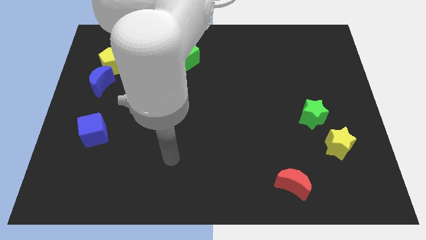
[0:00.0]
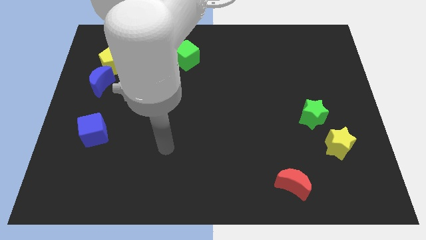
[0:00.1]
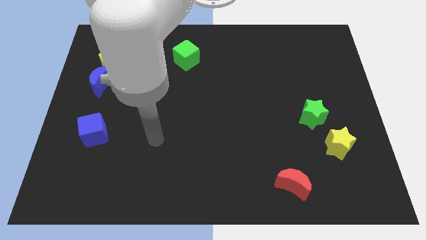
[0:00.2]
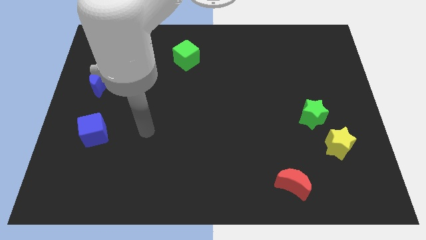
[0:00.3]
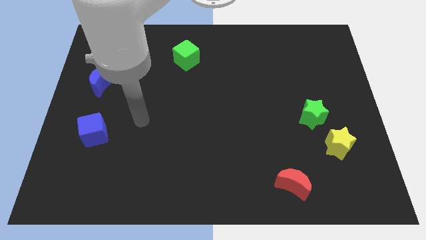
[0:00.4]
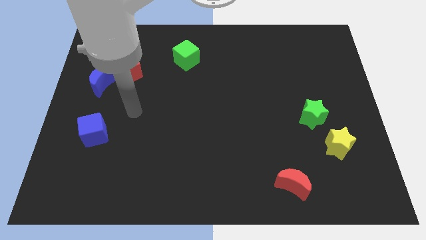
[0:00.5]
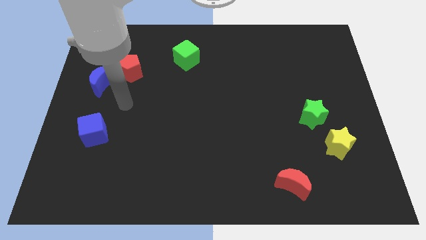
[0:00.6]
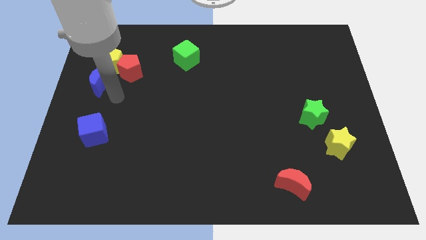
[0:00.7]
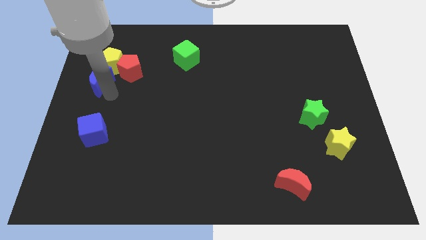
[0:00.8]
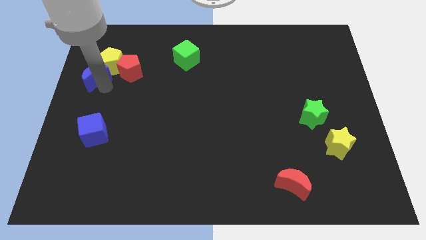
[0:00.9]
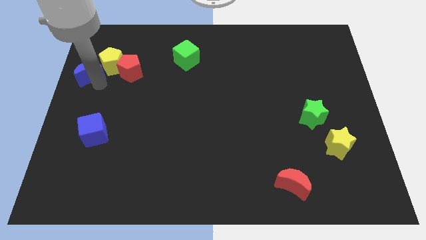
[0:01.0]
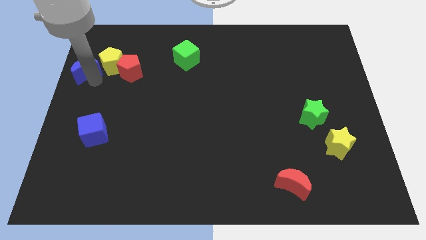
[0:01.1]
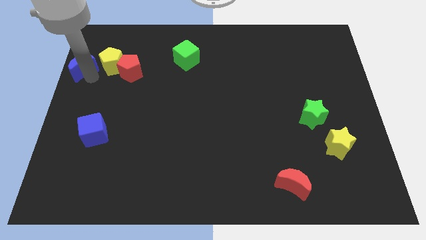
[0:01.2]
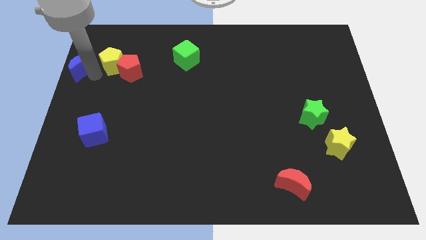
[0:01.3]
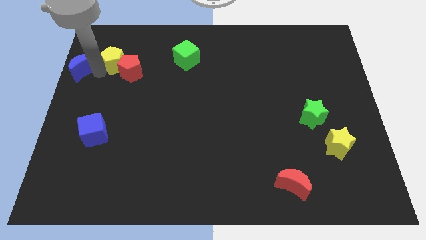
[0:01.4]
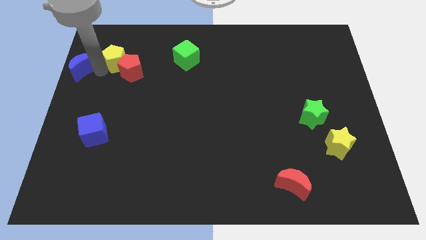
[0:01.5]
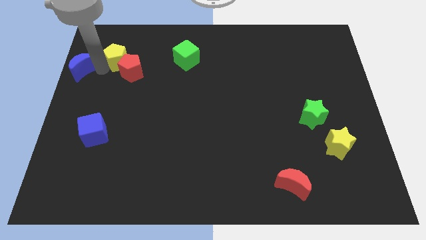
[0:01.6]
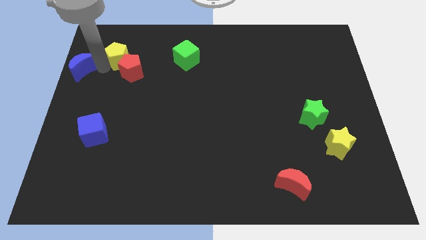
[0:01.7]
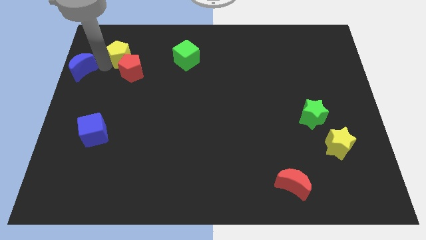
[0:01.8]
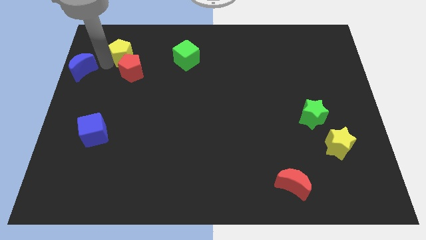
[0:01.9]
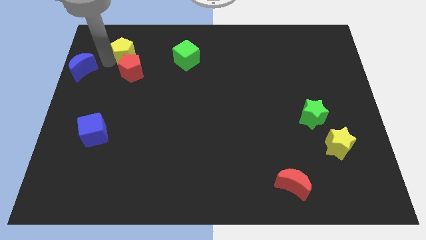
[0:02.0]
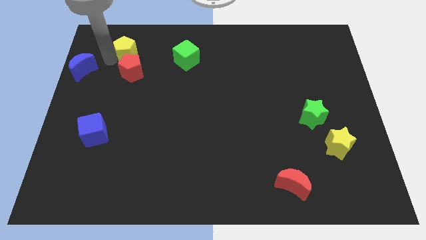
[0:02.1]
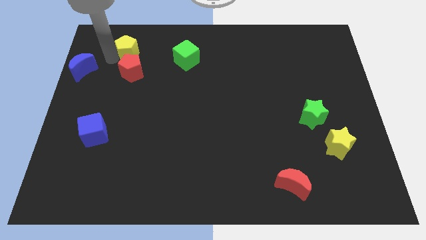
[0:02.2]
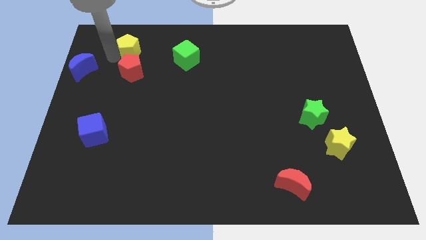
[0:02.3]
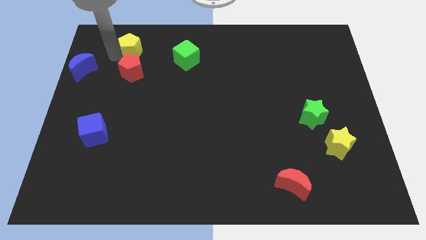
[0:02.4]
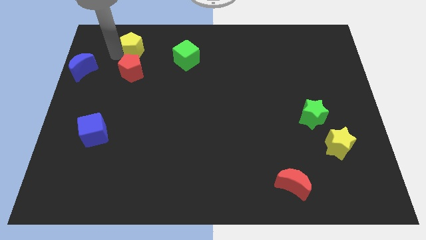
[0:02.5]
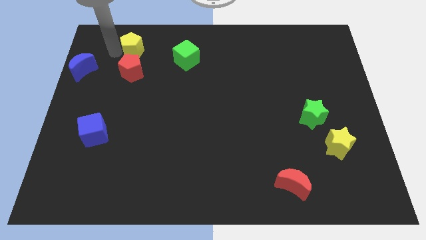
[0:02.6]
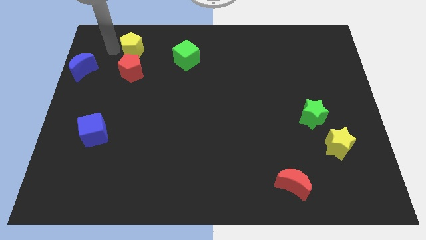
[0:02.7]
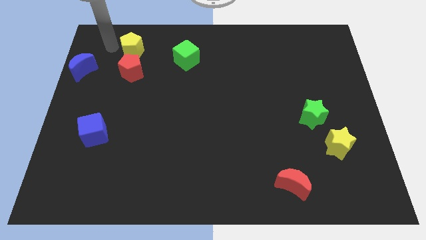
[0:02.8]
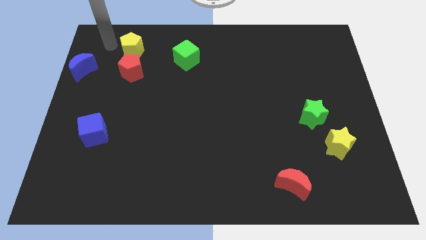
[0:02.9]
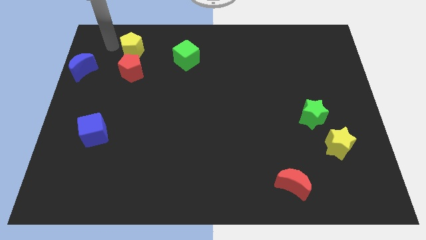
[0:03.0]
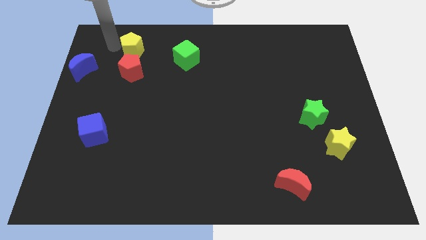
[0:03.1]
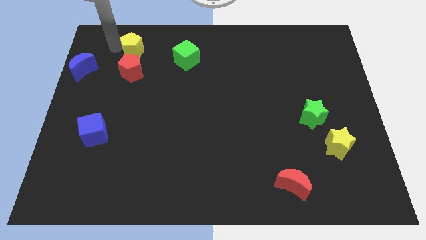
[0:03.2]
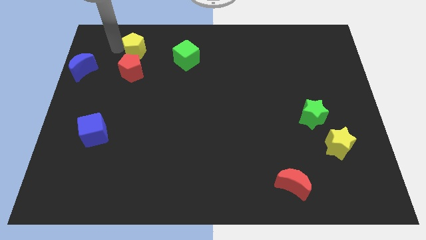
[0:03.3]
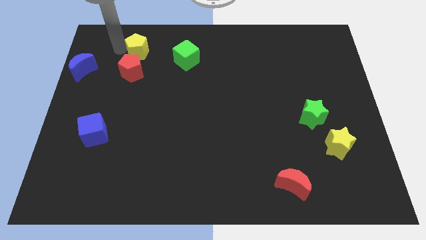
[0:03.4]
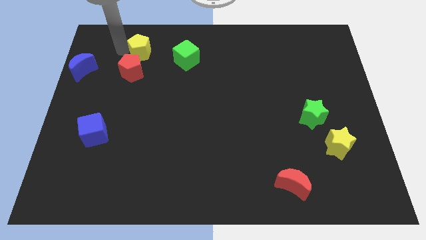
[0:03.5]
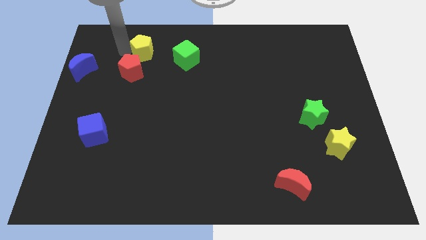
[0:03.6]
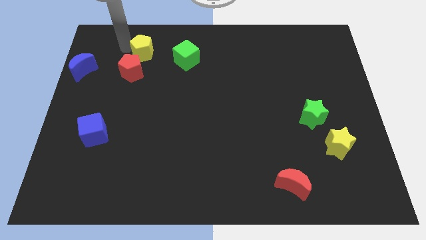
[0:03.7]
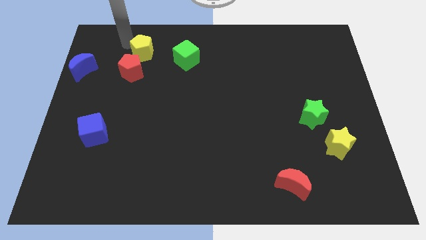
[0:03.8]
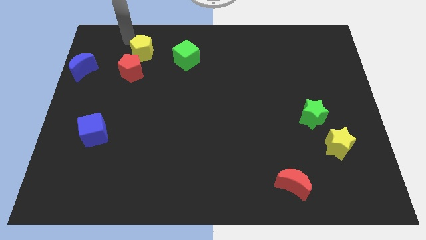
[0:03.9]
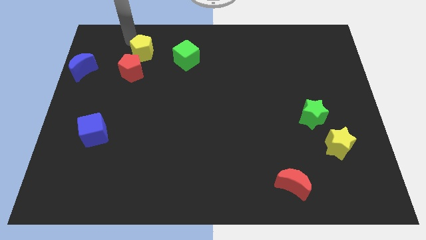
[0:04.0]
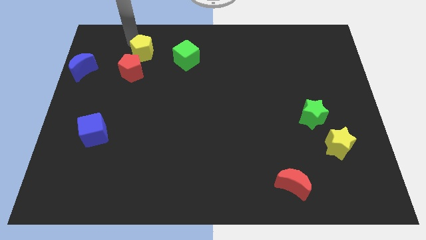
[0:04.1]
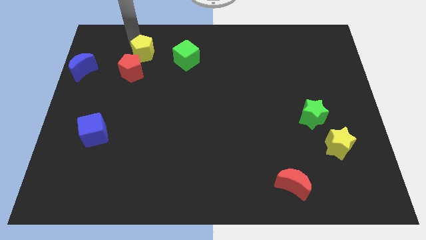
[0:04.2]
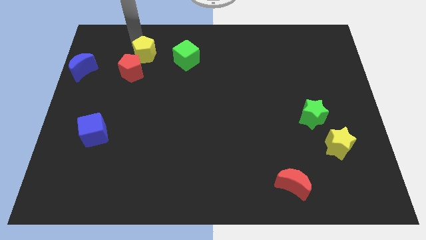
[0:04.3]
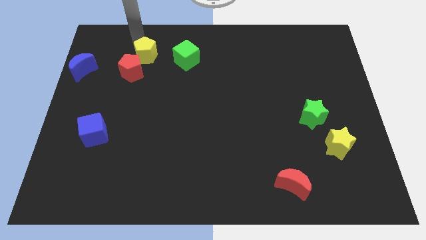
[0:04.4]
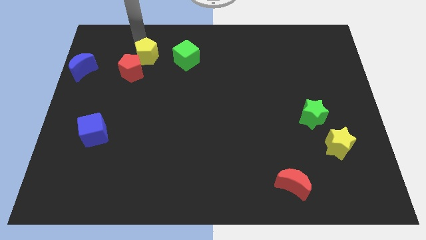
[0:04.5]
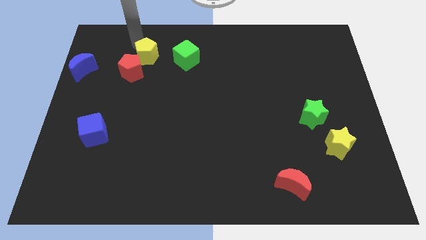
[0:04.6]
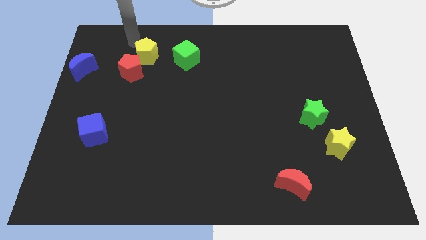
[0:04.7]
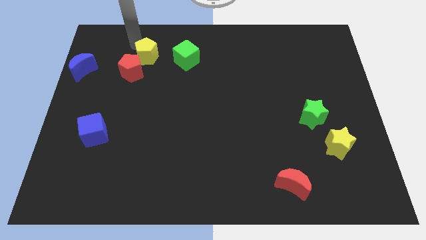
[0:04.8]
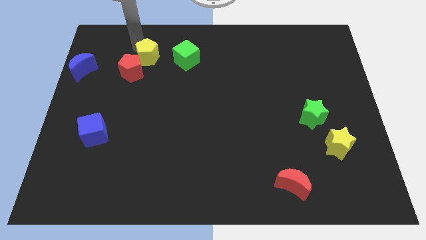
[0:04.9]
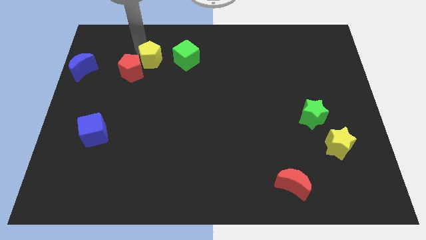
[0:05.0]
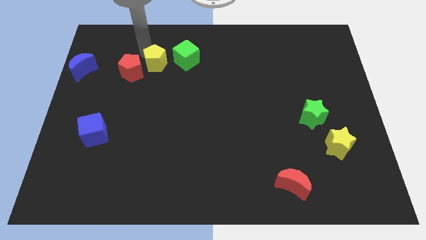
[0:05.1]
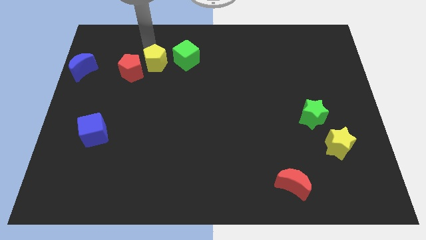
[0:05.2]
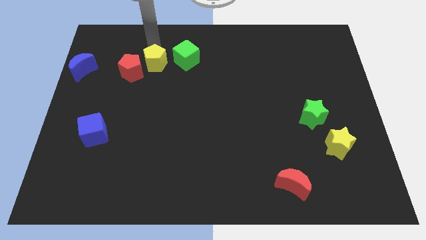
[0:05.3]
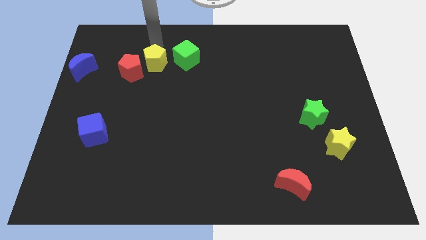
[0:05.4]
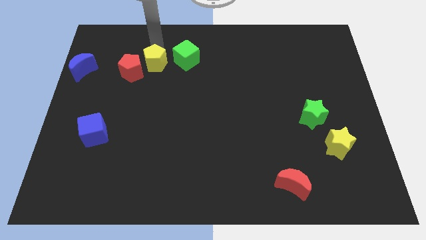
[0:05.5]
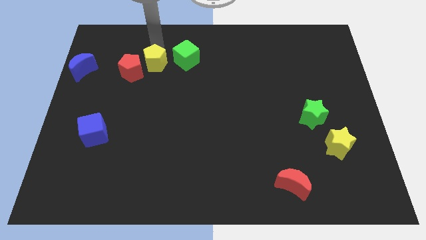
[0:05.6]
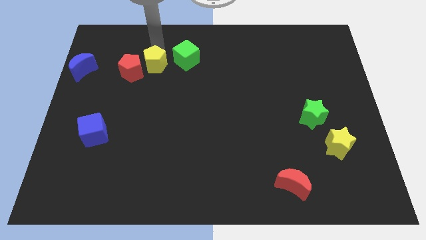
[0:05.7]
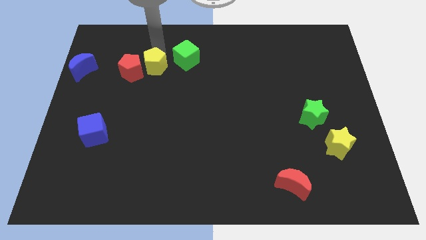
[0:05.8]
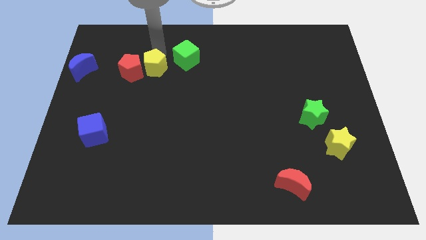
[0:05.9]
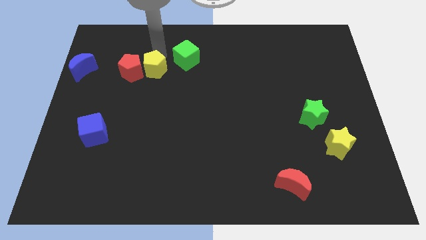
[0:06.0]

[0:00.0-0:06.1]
slide the yellow pentagon downwards and right a little

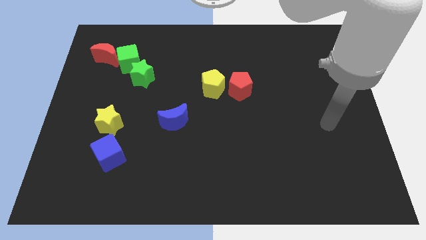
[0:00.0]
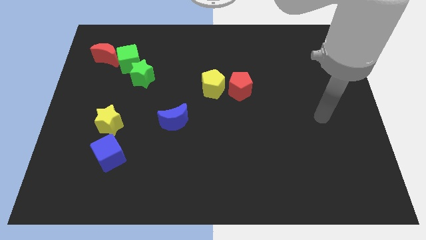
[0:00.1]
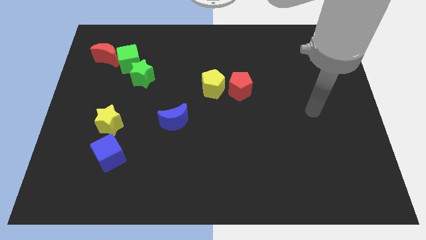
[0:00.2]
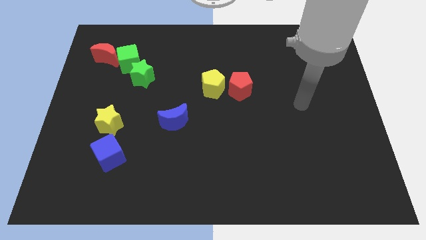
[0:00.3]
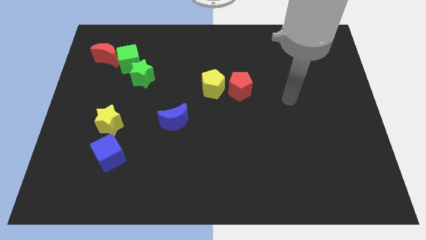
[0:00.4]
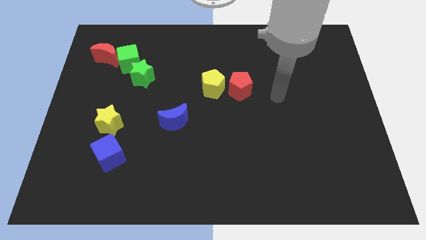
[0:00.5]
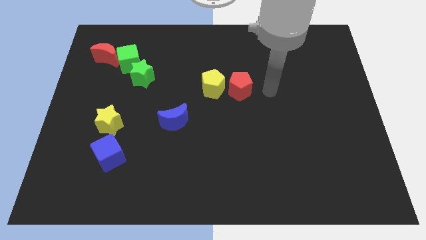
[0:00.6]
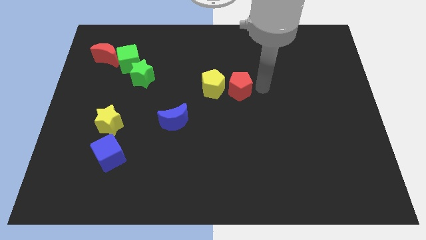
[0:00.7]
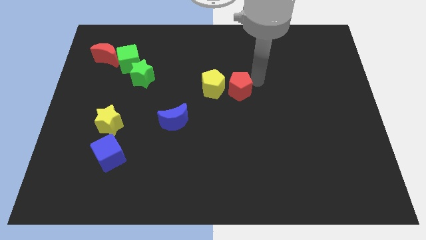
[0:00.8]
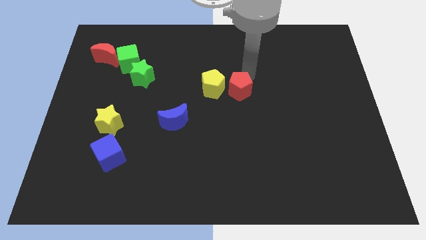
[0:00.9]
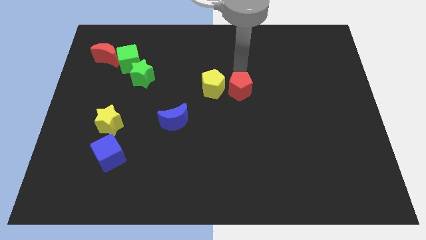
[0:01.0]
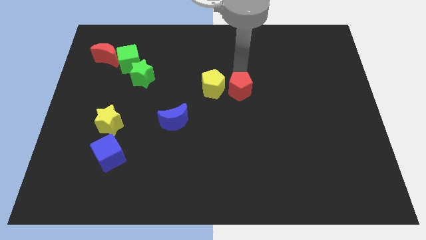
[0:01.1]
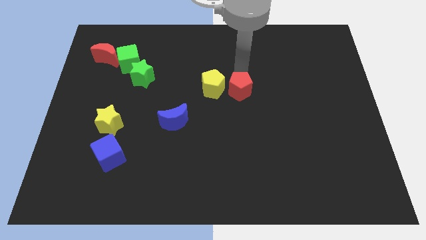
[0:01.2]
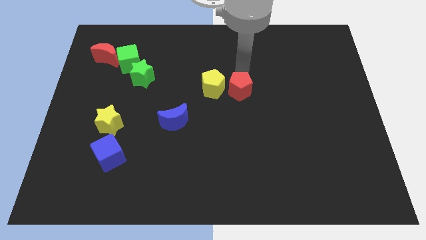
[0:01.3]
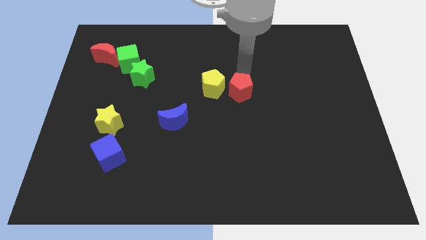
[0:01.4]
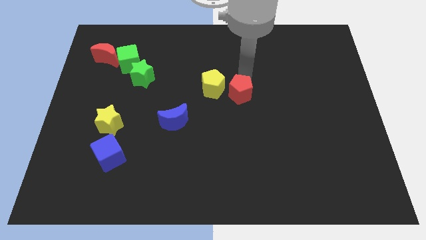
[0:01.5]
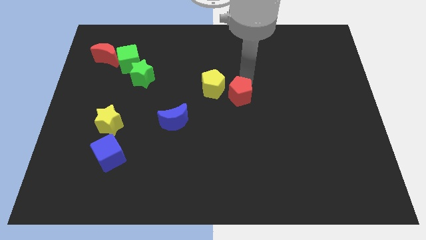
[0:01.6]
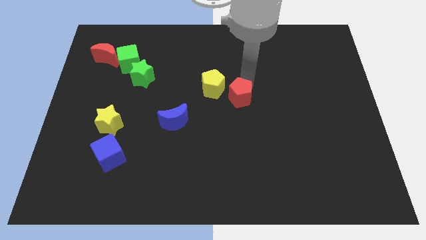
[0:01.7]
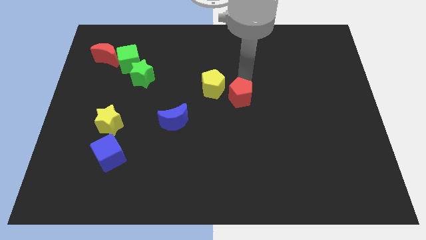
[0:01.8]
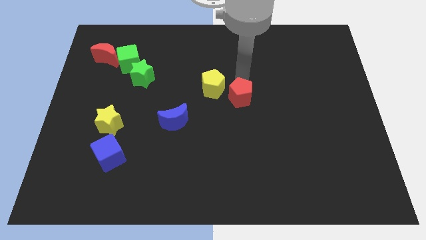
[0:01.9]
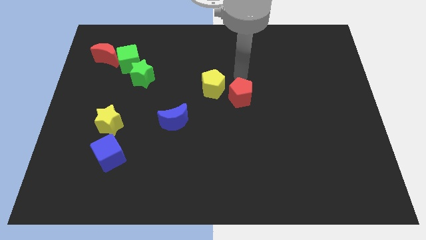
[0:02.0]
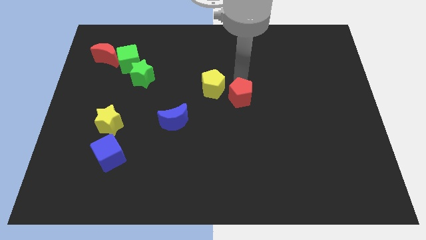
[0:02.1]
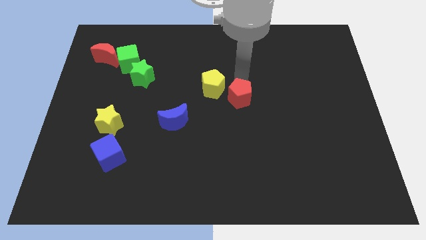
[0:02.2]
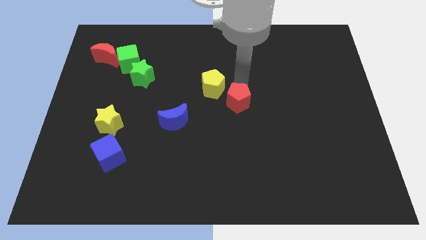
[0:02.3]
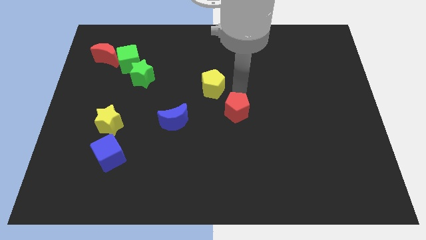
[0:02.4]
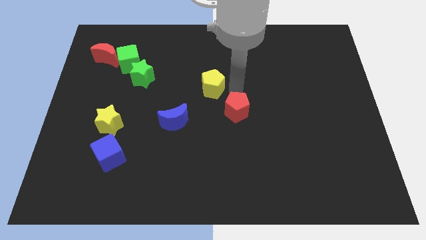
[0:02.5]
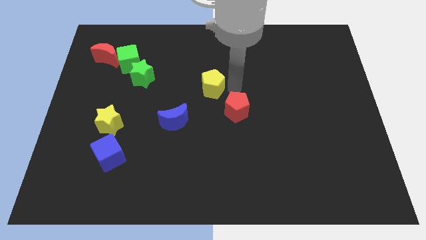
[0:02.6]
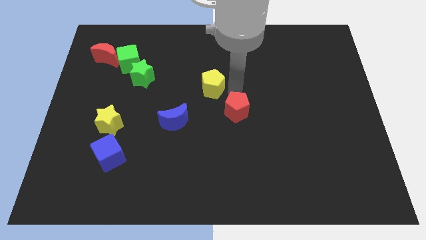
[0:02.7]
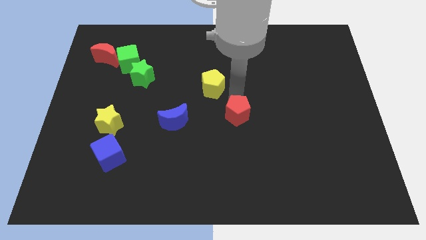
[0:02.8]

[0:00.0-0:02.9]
slide the red pentagon down somewhat
